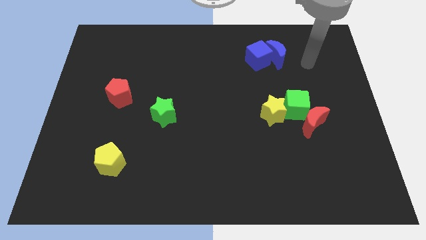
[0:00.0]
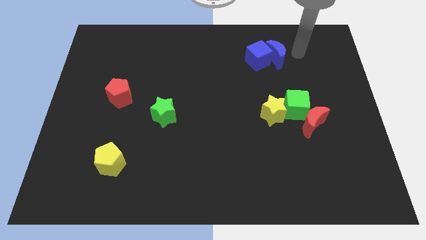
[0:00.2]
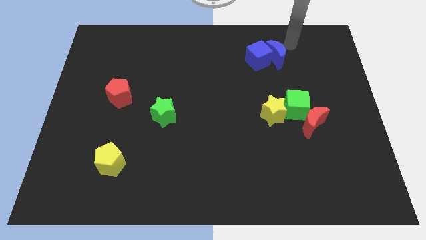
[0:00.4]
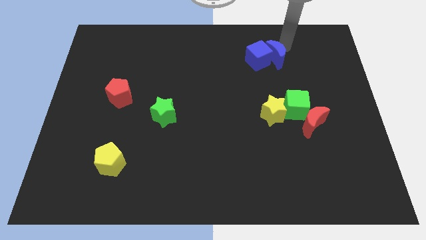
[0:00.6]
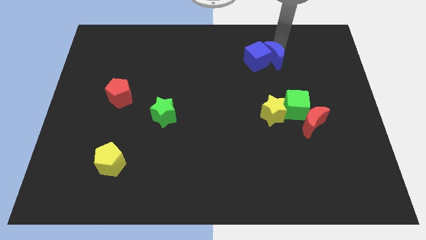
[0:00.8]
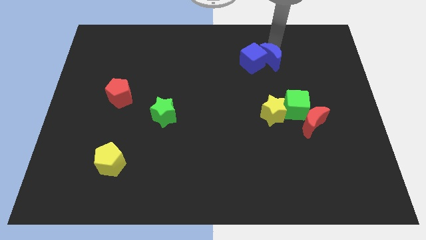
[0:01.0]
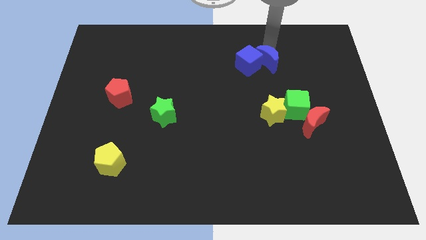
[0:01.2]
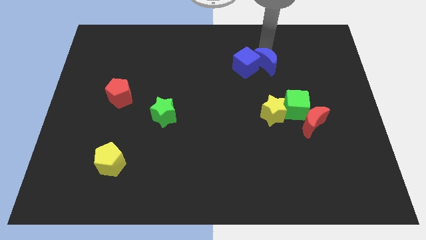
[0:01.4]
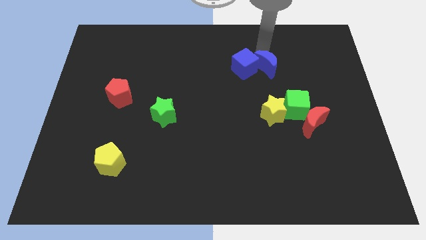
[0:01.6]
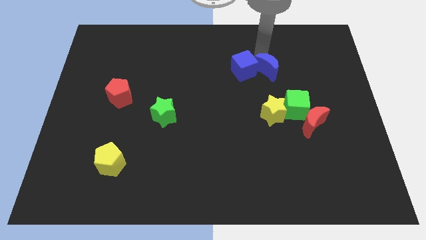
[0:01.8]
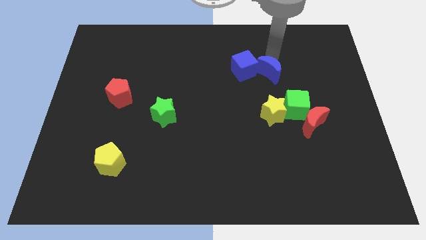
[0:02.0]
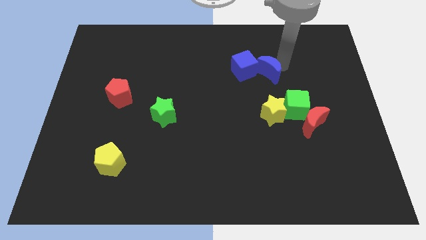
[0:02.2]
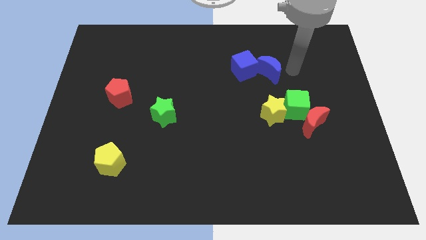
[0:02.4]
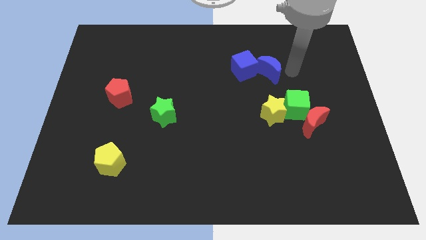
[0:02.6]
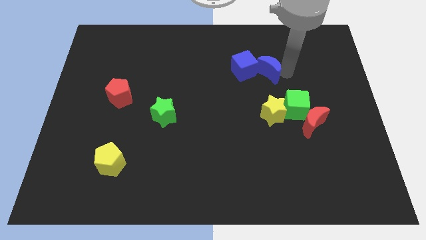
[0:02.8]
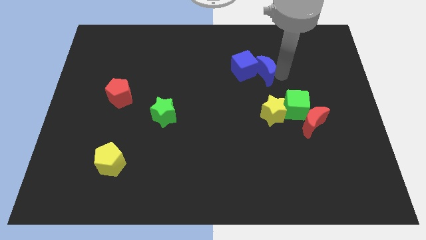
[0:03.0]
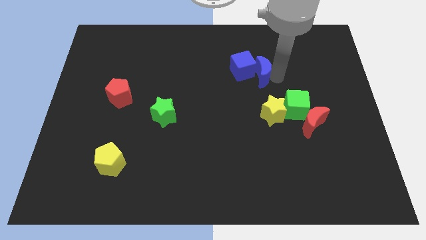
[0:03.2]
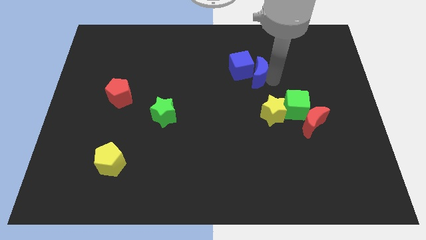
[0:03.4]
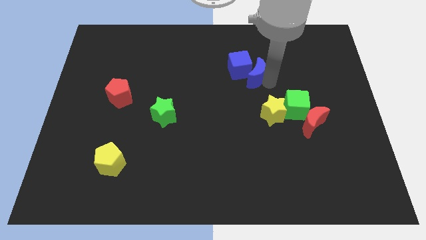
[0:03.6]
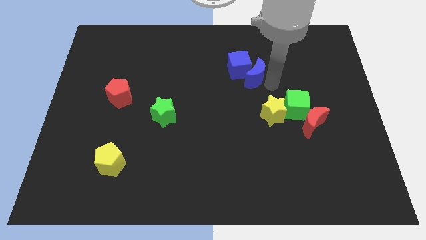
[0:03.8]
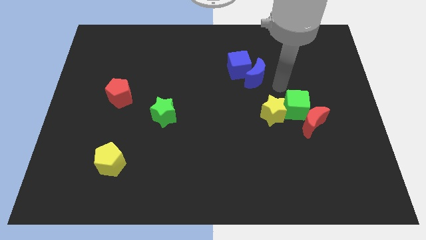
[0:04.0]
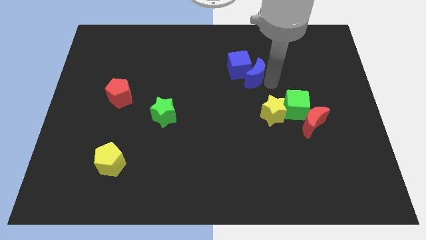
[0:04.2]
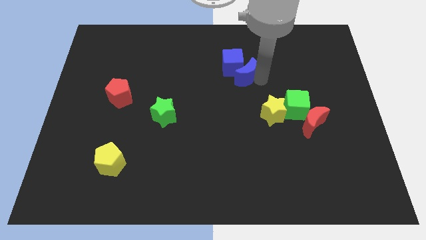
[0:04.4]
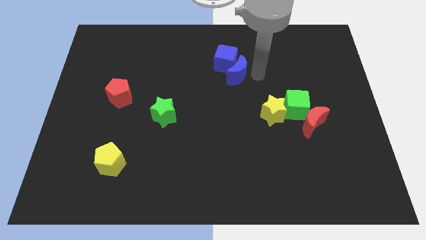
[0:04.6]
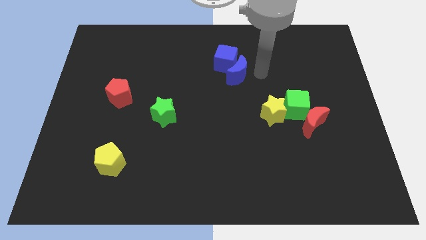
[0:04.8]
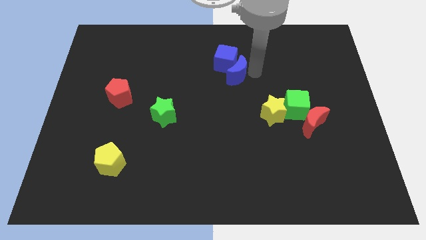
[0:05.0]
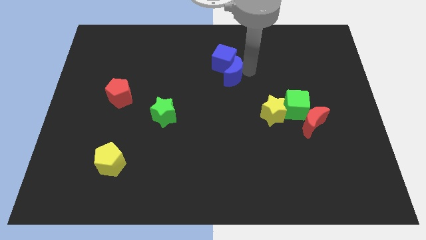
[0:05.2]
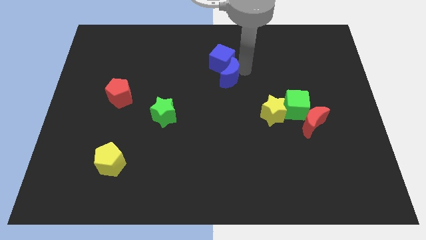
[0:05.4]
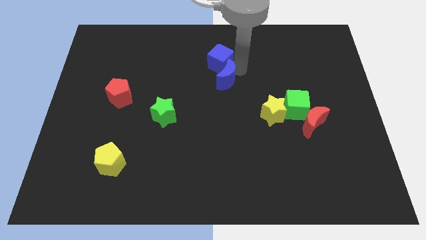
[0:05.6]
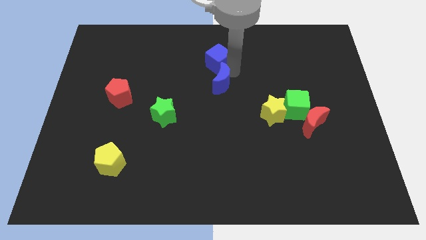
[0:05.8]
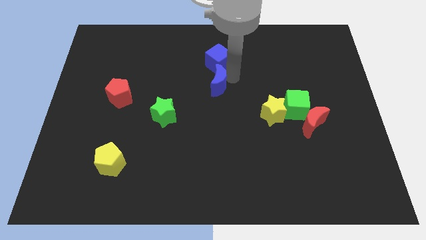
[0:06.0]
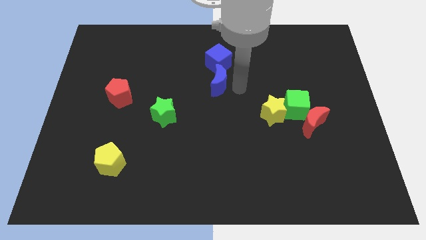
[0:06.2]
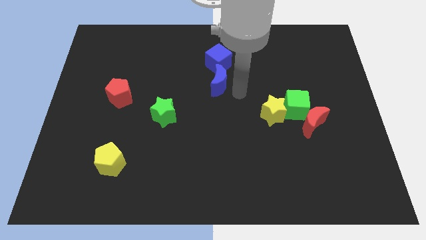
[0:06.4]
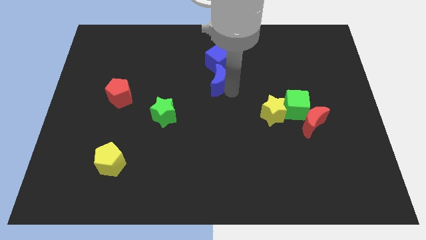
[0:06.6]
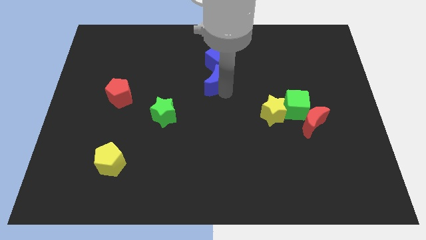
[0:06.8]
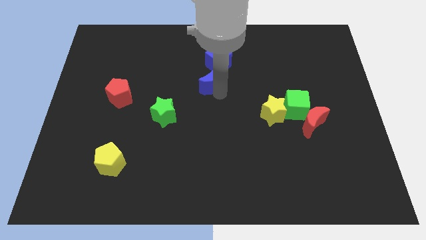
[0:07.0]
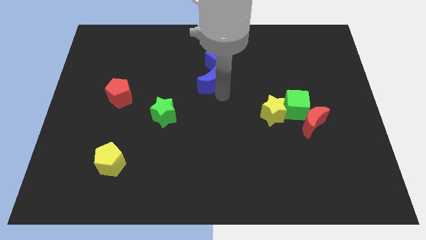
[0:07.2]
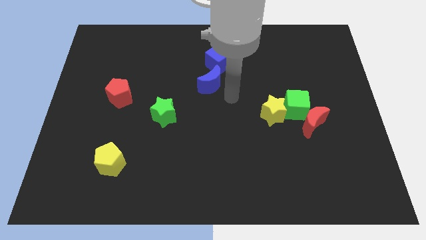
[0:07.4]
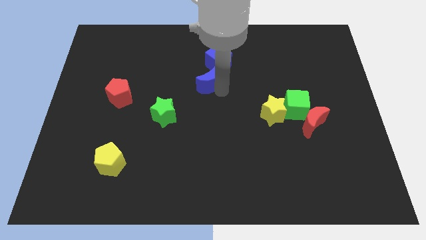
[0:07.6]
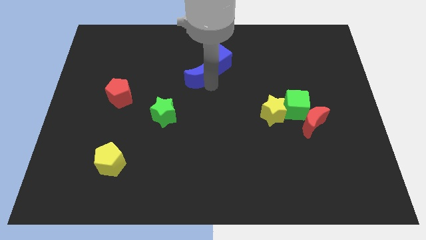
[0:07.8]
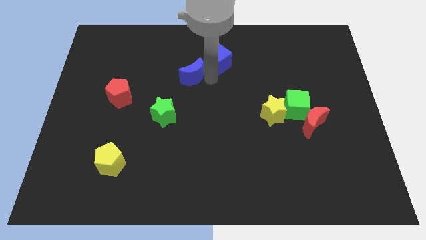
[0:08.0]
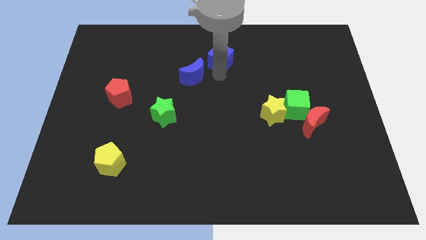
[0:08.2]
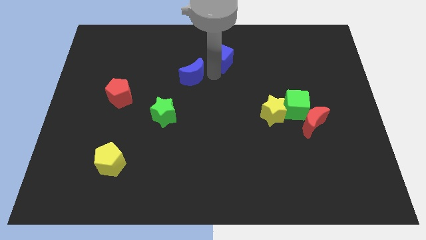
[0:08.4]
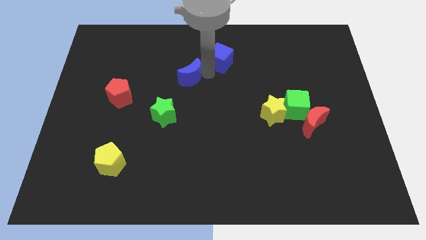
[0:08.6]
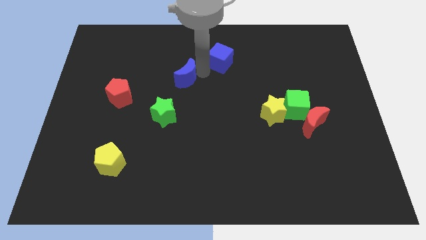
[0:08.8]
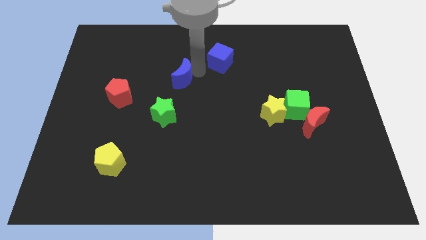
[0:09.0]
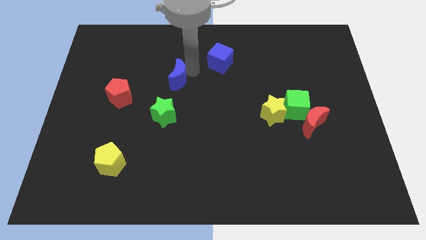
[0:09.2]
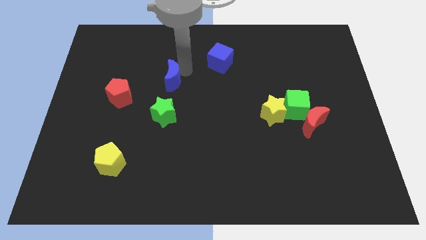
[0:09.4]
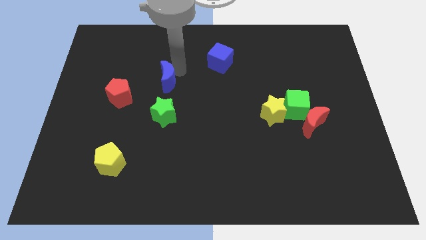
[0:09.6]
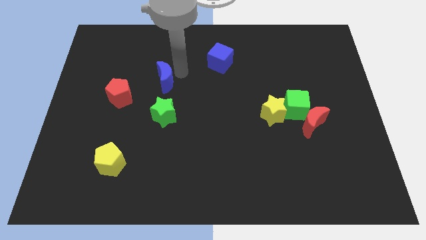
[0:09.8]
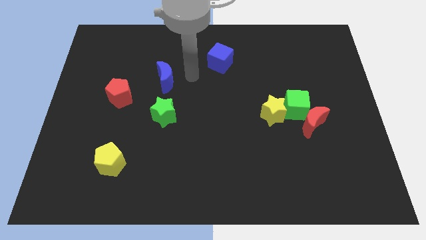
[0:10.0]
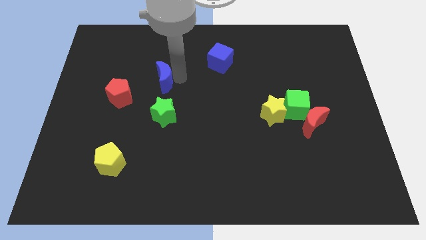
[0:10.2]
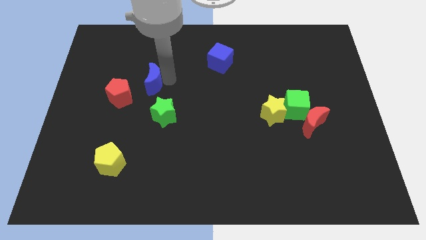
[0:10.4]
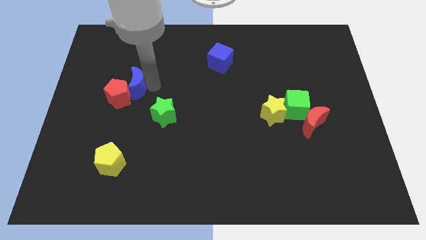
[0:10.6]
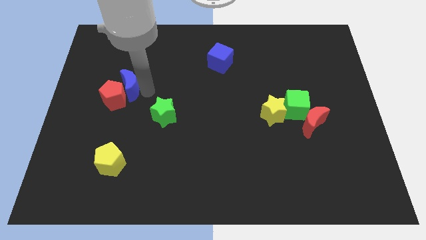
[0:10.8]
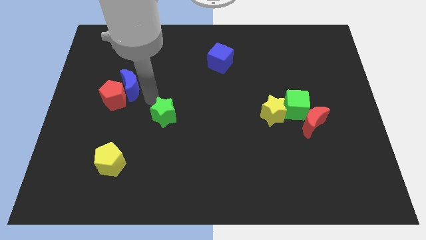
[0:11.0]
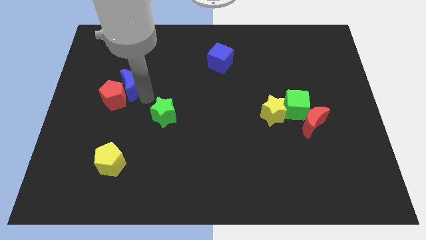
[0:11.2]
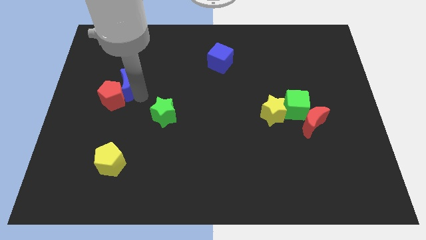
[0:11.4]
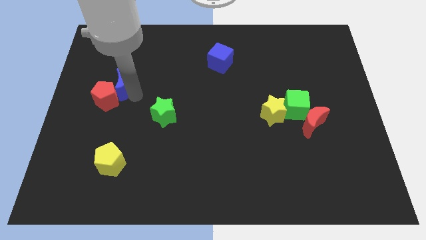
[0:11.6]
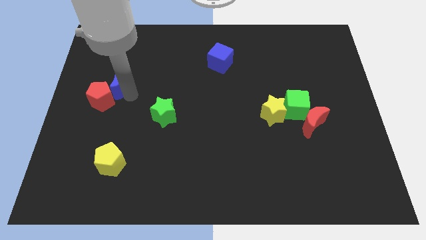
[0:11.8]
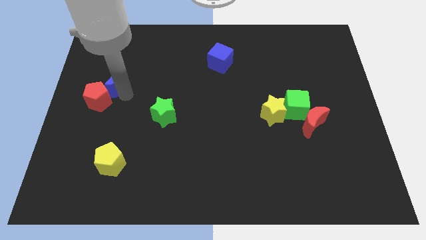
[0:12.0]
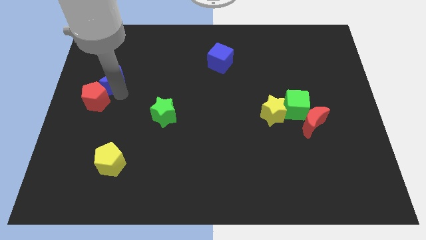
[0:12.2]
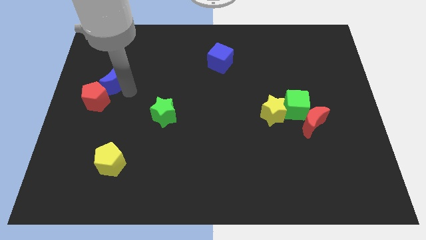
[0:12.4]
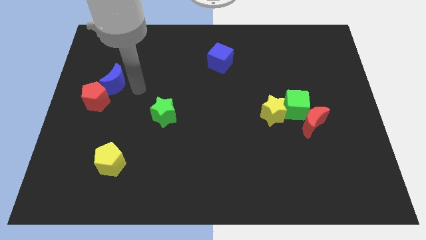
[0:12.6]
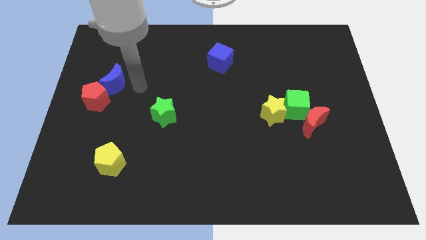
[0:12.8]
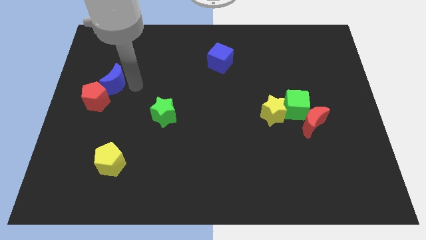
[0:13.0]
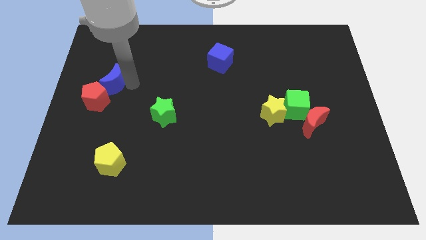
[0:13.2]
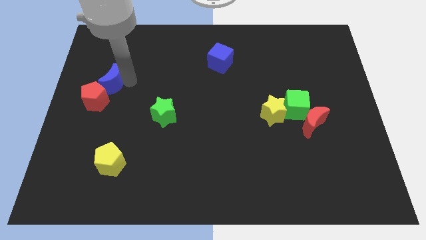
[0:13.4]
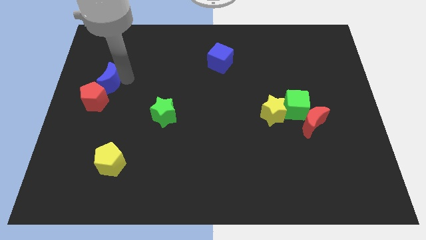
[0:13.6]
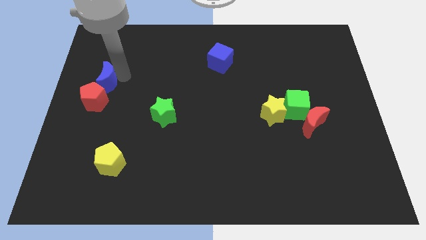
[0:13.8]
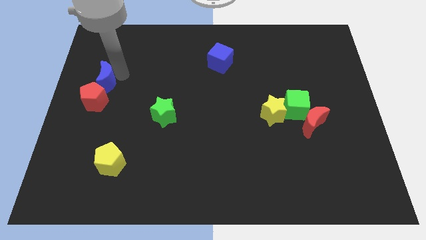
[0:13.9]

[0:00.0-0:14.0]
push the blue moon to the left side of the board
